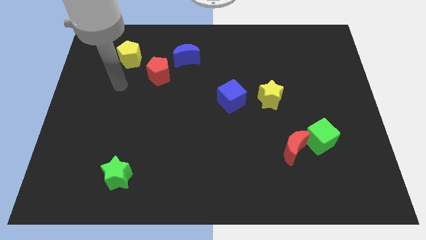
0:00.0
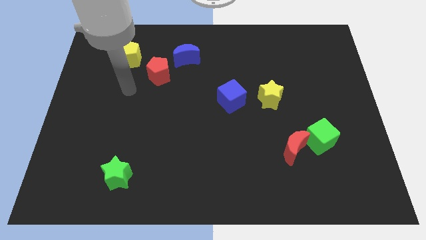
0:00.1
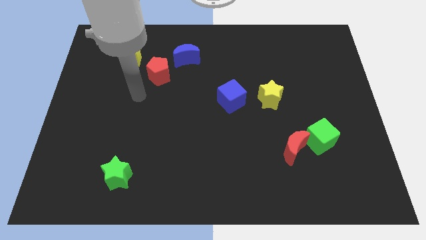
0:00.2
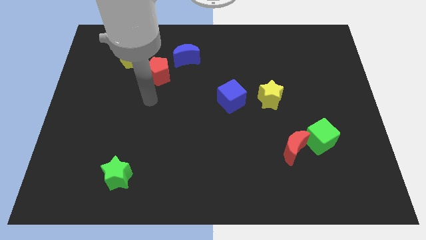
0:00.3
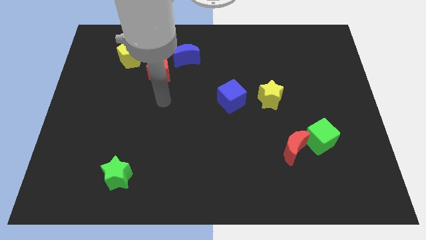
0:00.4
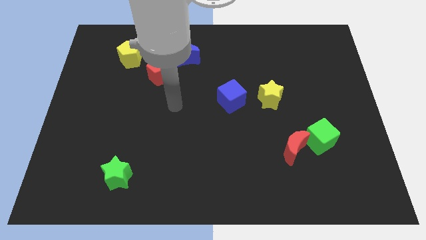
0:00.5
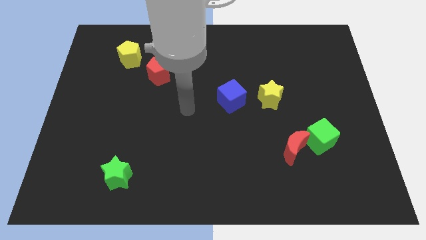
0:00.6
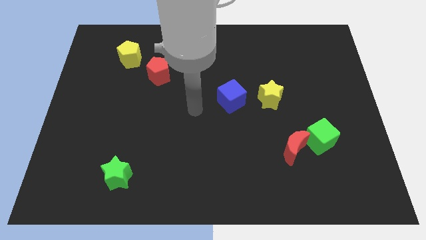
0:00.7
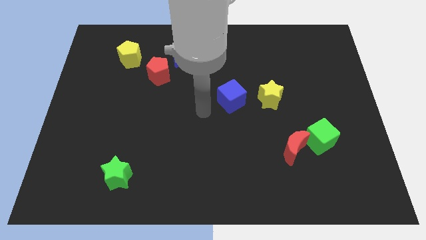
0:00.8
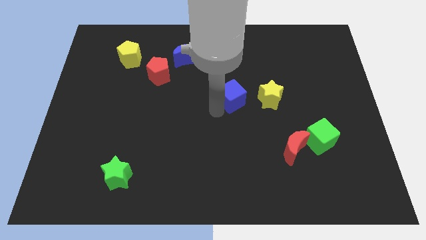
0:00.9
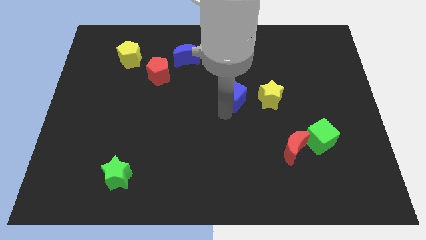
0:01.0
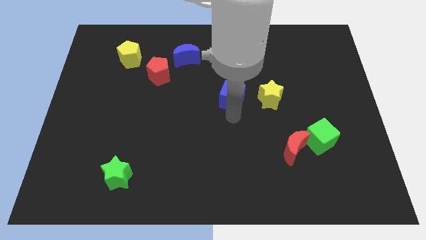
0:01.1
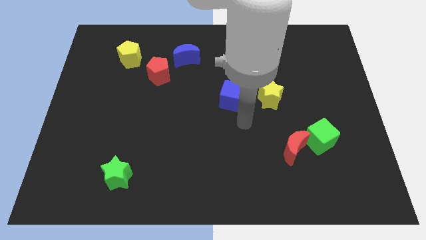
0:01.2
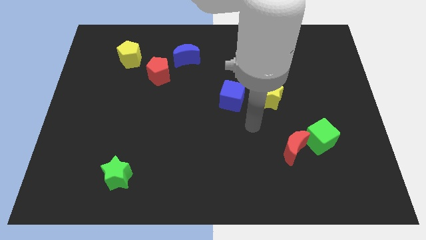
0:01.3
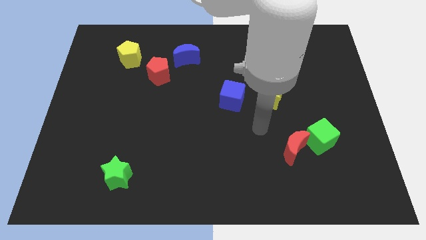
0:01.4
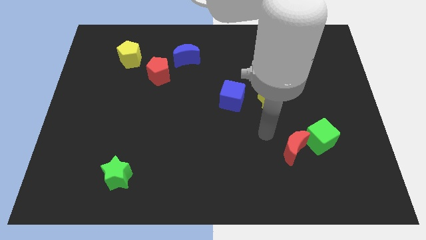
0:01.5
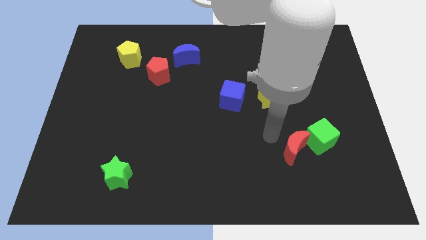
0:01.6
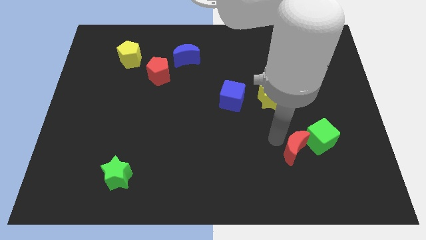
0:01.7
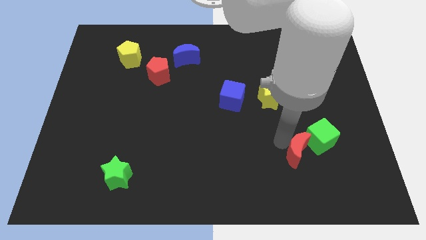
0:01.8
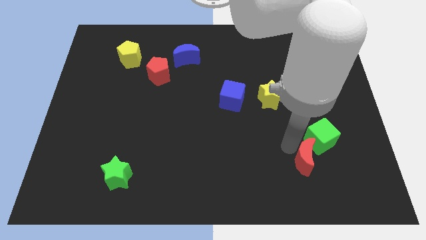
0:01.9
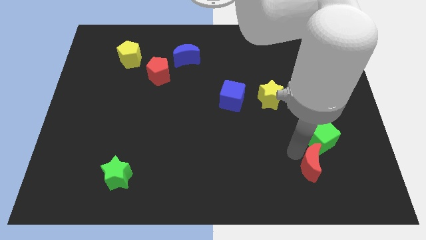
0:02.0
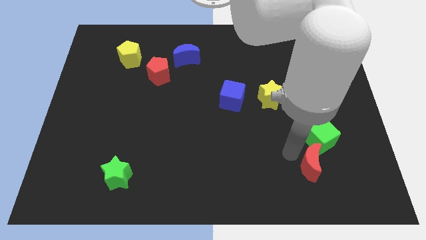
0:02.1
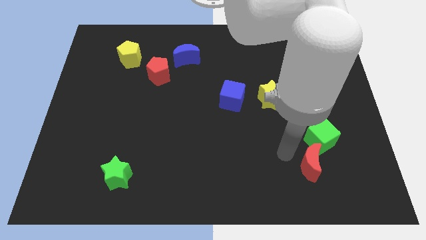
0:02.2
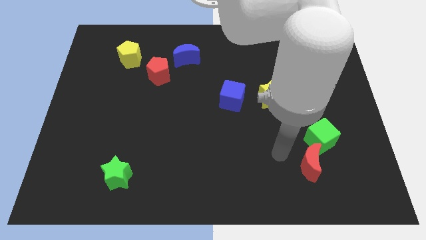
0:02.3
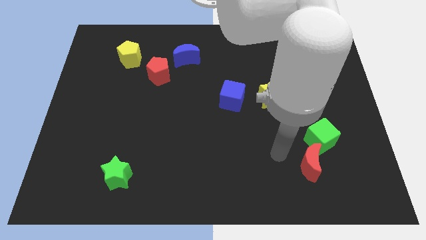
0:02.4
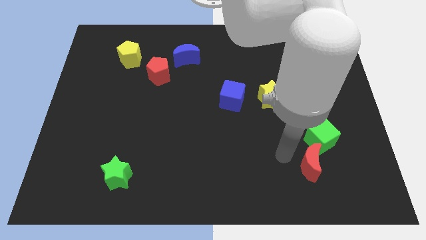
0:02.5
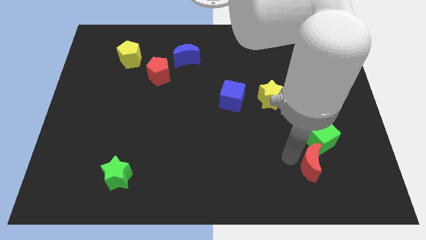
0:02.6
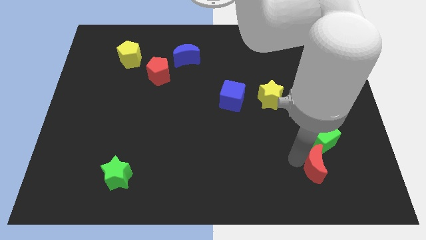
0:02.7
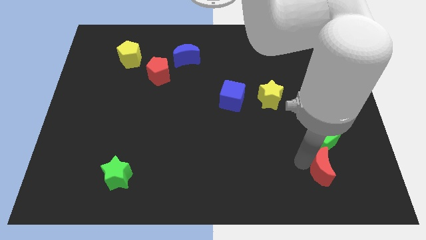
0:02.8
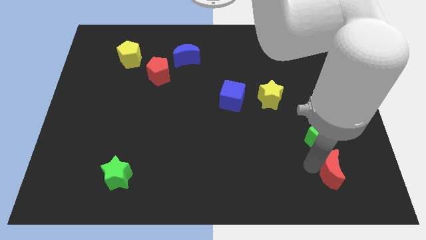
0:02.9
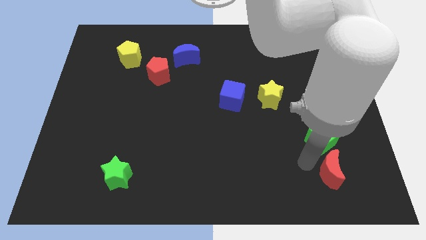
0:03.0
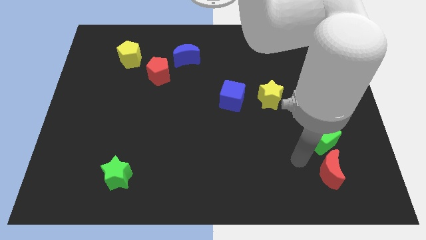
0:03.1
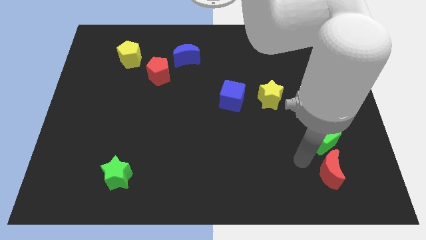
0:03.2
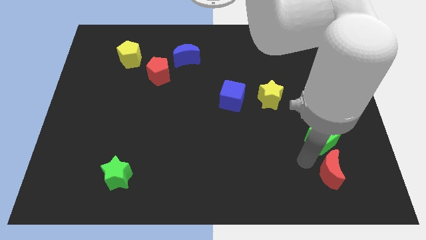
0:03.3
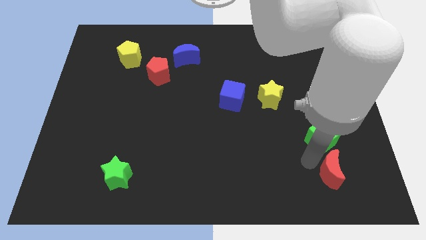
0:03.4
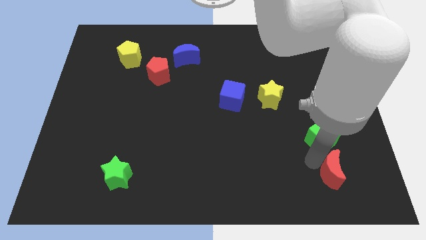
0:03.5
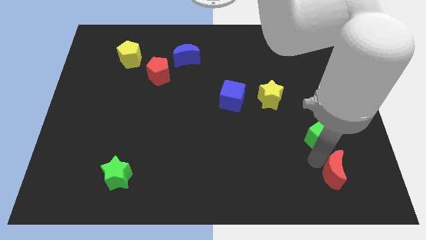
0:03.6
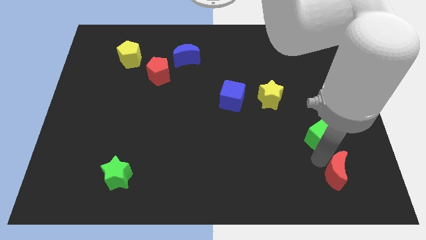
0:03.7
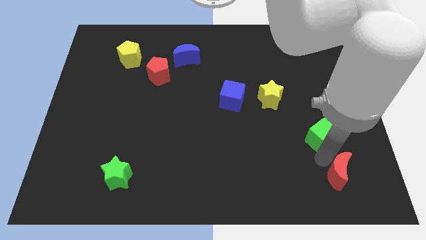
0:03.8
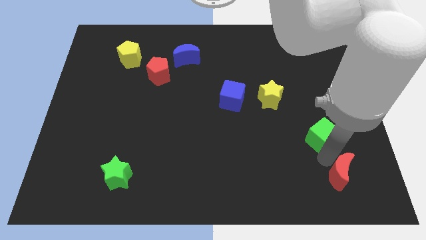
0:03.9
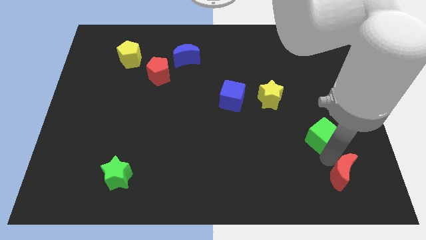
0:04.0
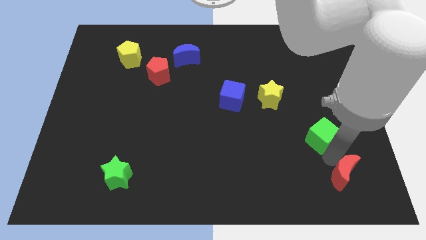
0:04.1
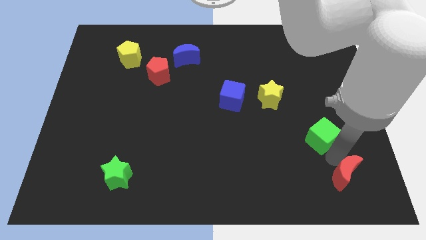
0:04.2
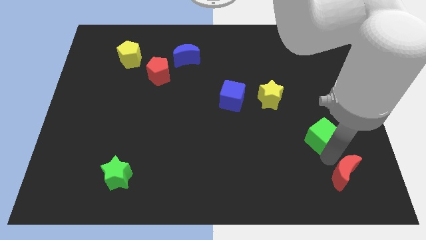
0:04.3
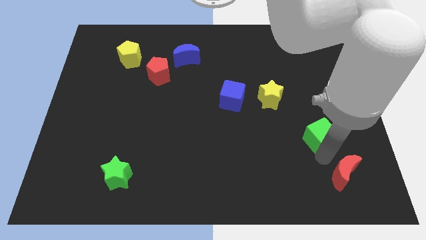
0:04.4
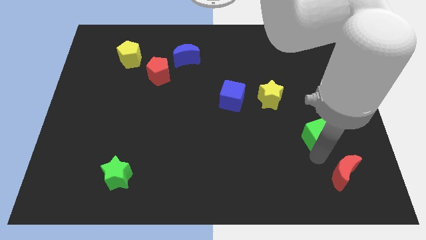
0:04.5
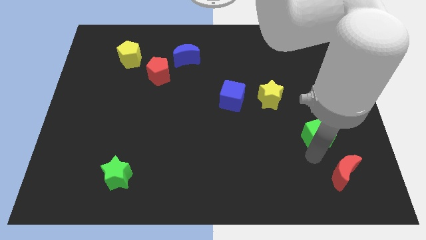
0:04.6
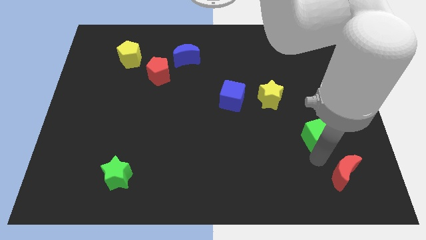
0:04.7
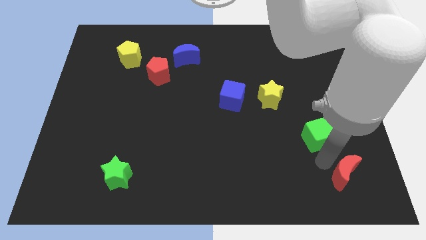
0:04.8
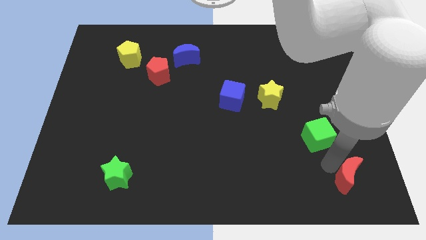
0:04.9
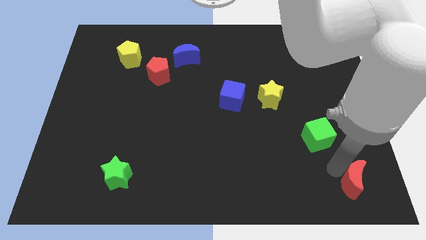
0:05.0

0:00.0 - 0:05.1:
move the red moon to the lower right corner

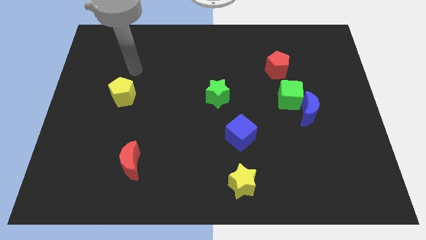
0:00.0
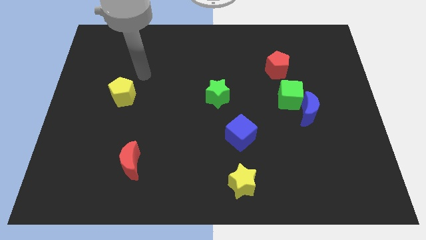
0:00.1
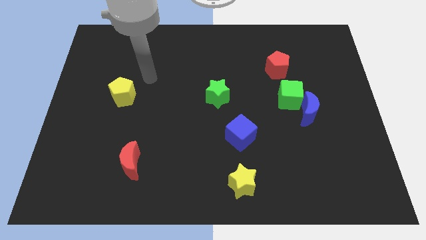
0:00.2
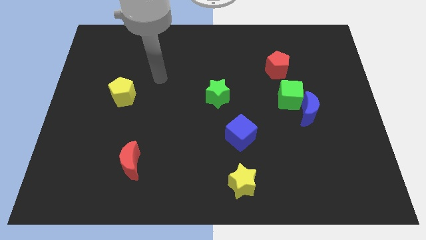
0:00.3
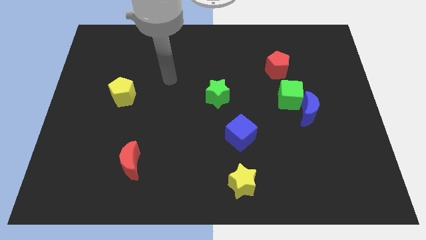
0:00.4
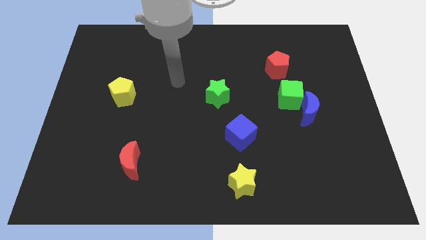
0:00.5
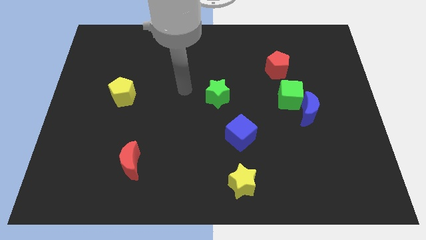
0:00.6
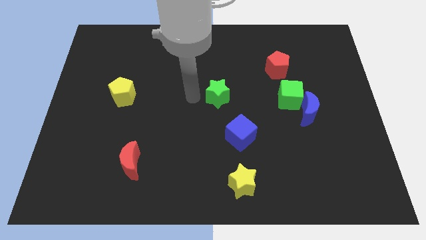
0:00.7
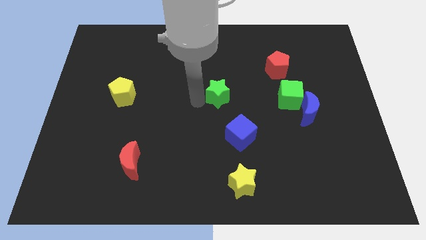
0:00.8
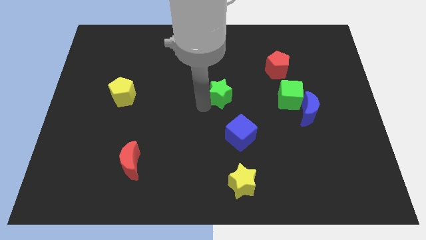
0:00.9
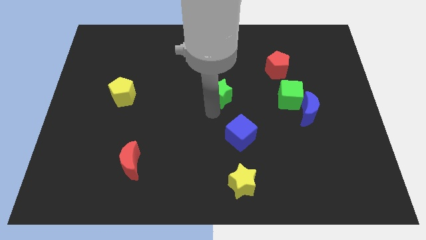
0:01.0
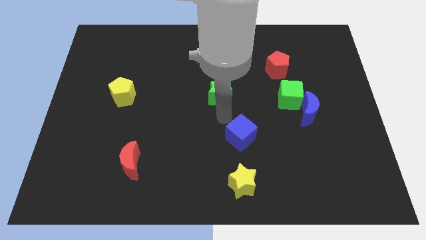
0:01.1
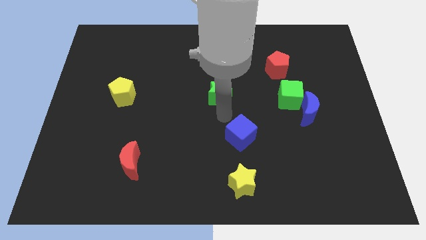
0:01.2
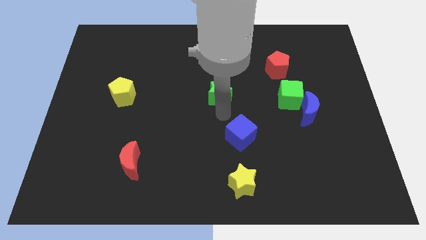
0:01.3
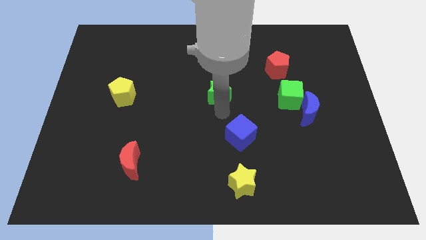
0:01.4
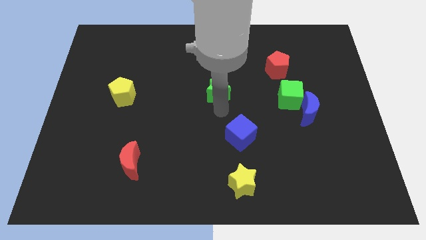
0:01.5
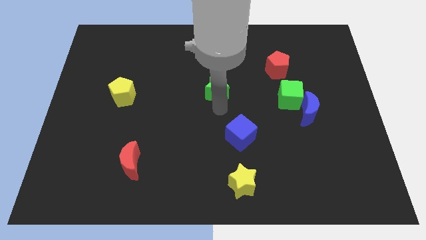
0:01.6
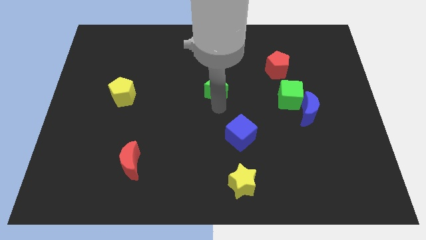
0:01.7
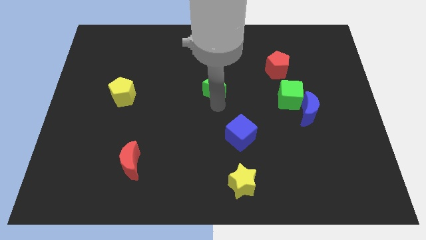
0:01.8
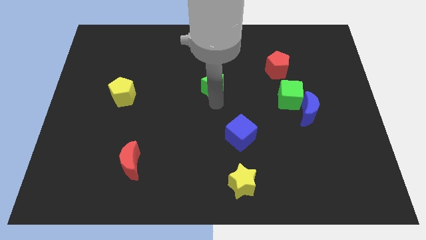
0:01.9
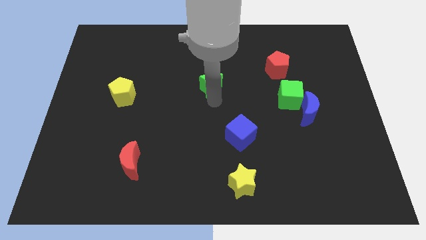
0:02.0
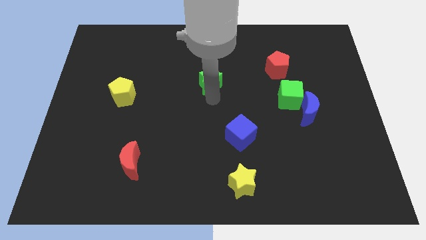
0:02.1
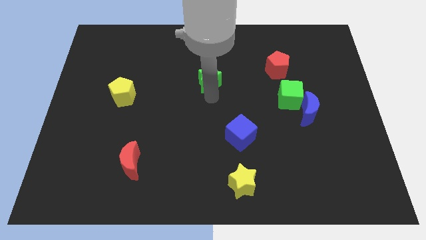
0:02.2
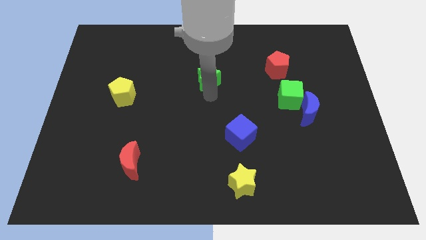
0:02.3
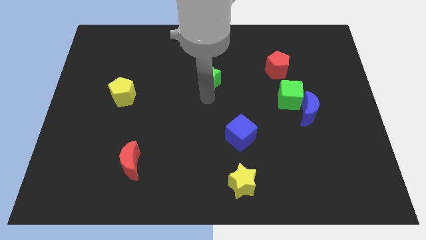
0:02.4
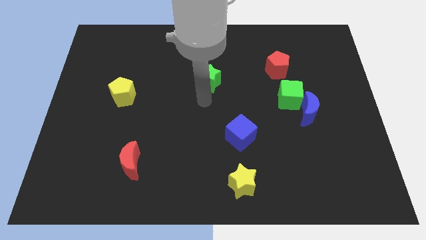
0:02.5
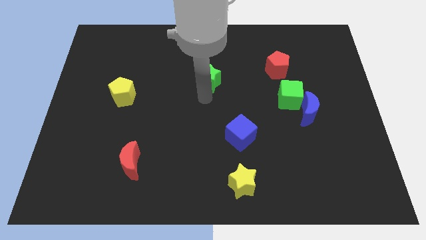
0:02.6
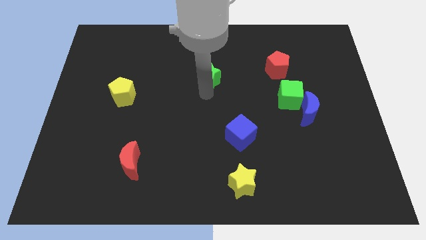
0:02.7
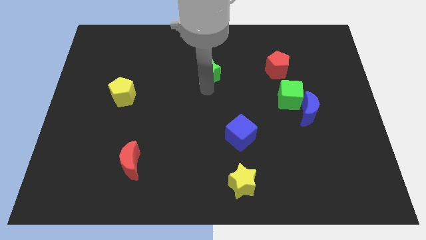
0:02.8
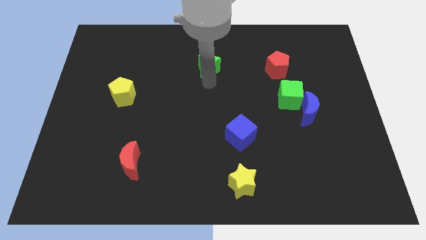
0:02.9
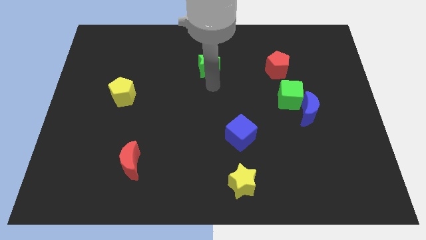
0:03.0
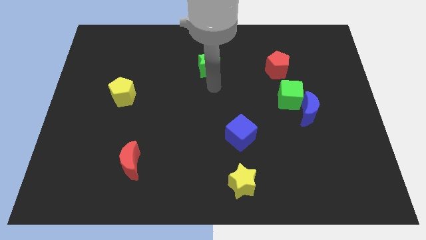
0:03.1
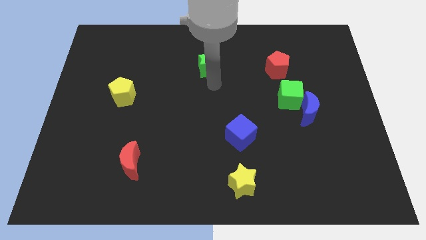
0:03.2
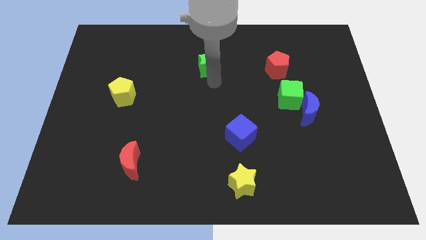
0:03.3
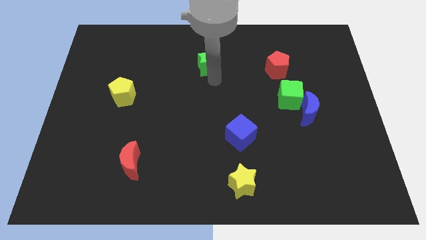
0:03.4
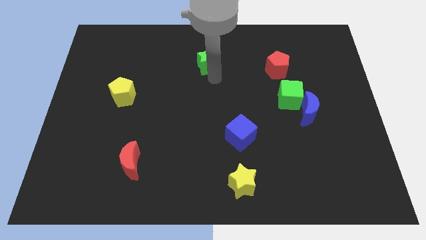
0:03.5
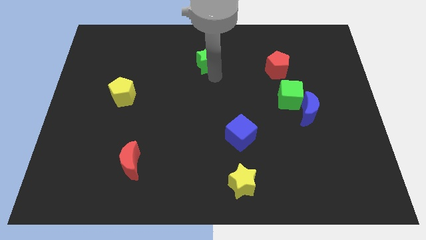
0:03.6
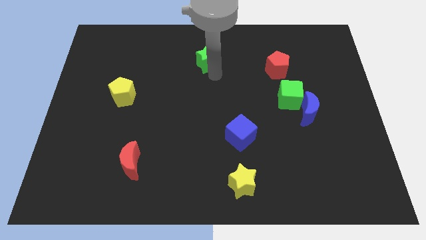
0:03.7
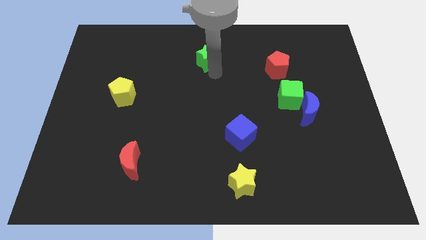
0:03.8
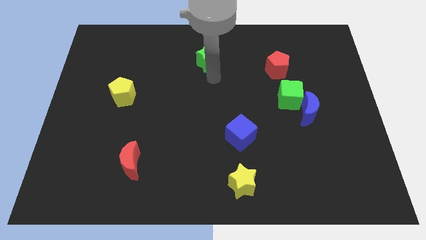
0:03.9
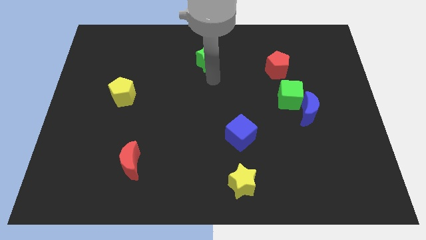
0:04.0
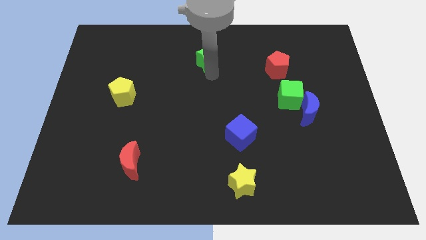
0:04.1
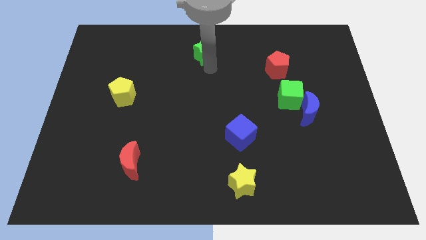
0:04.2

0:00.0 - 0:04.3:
slide the green star to the top side
